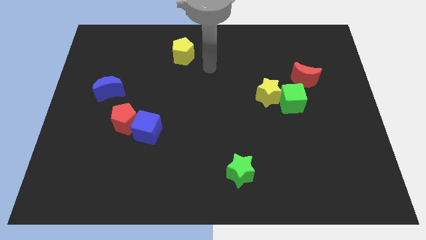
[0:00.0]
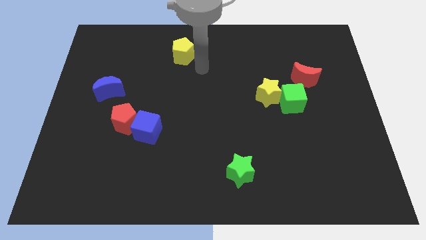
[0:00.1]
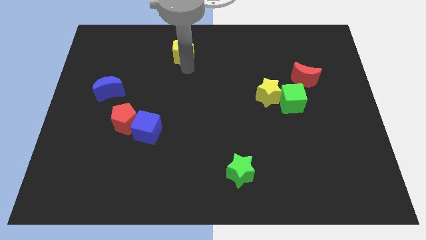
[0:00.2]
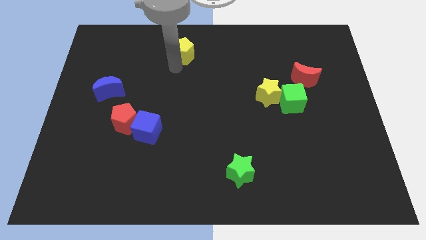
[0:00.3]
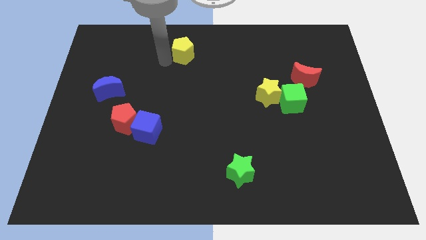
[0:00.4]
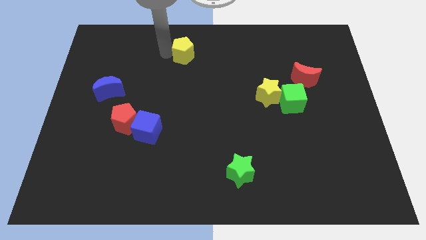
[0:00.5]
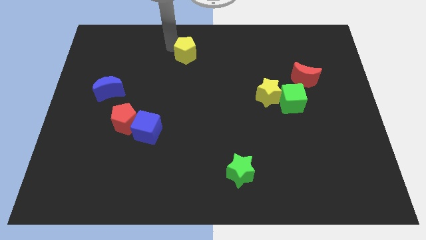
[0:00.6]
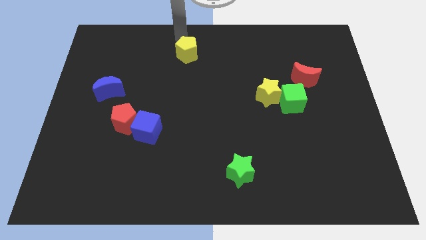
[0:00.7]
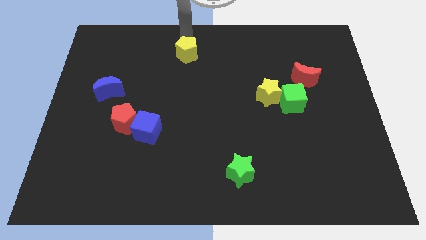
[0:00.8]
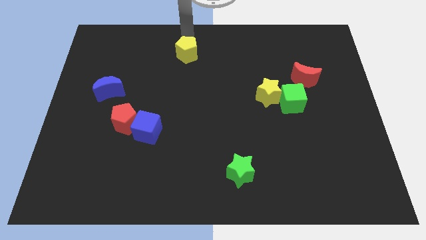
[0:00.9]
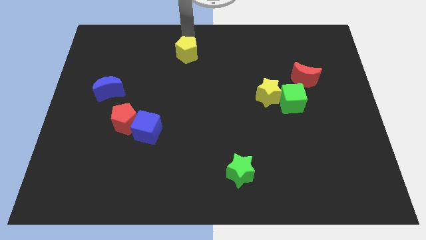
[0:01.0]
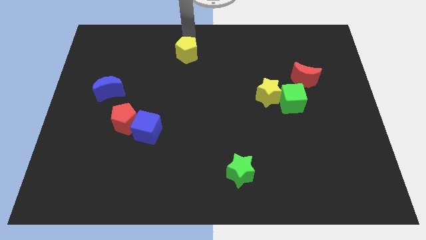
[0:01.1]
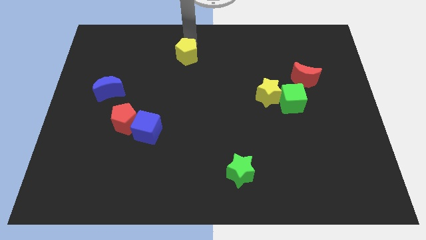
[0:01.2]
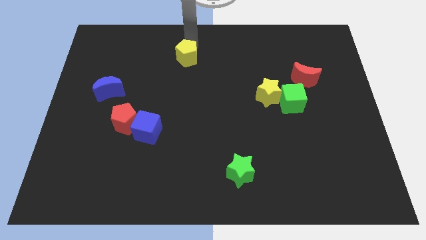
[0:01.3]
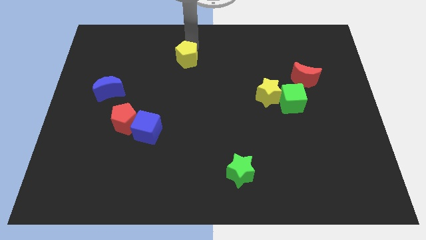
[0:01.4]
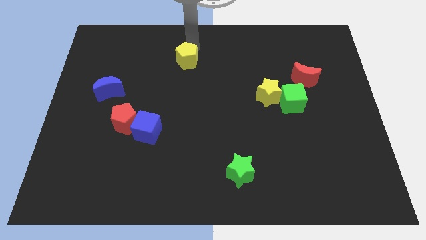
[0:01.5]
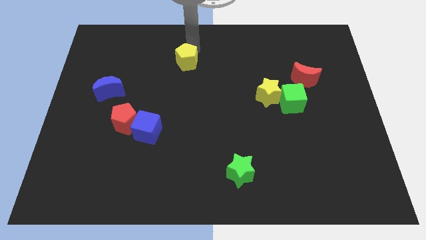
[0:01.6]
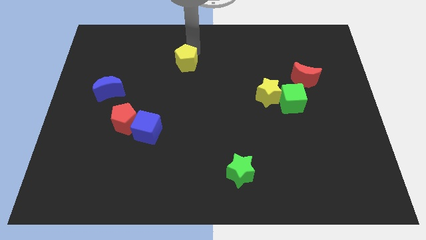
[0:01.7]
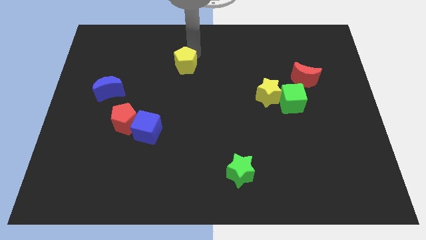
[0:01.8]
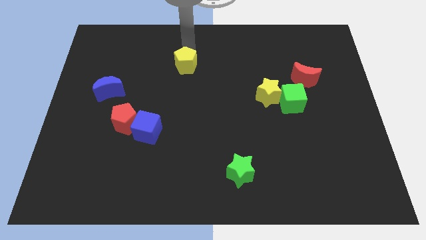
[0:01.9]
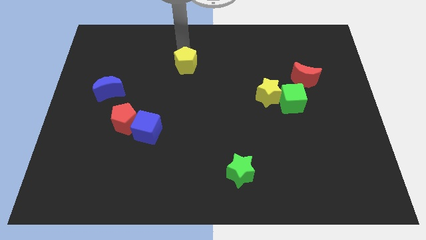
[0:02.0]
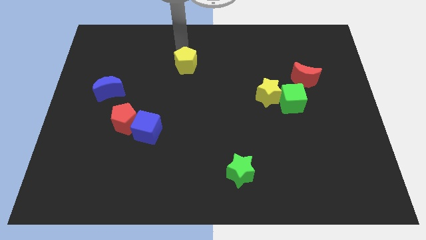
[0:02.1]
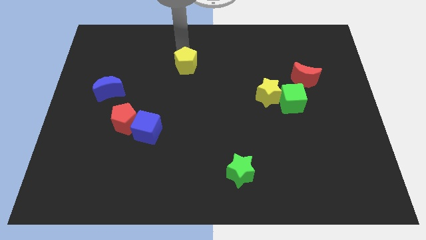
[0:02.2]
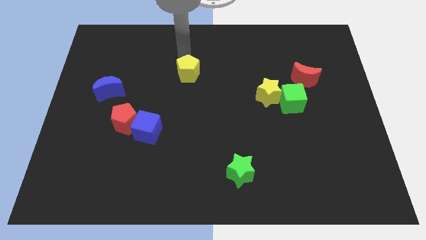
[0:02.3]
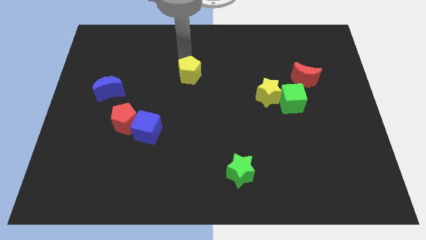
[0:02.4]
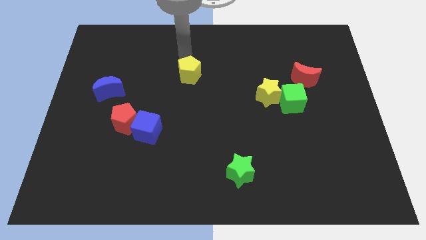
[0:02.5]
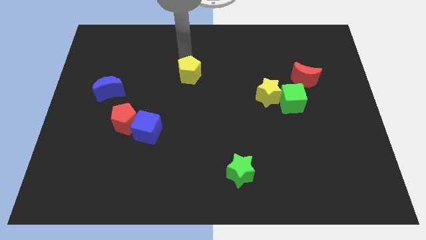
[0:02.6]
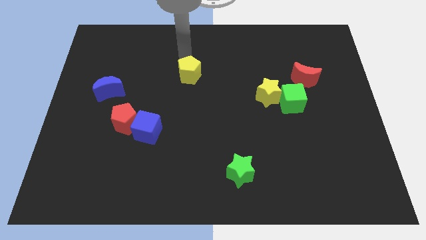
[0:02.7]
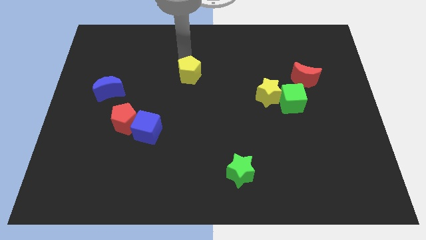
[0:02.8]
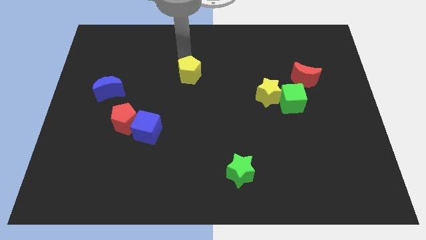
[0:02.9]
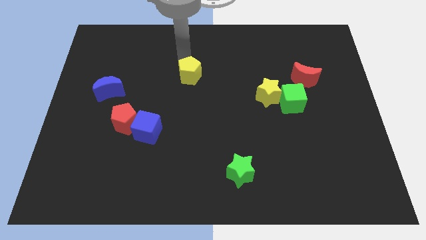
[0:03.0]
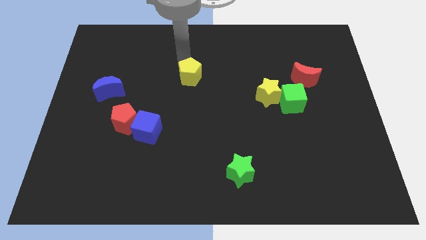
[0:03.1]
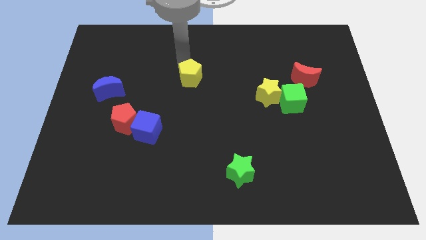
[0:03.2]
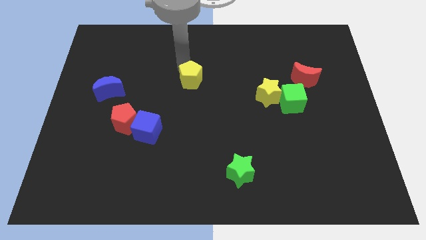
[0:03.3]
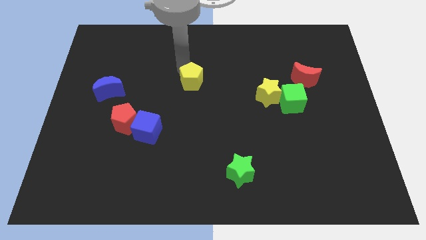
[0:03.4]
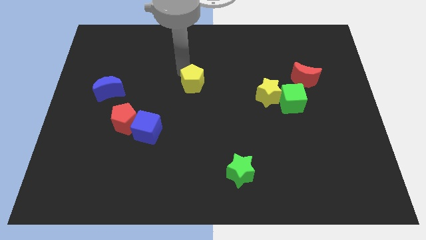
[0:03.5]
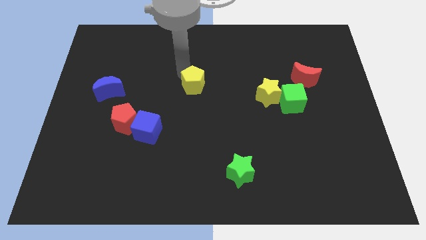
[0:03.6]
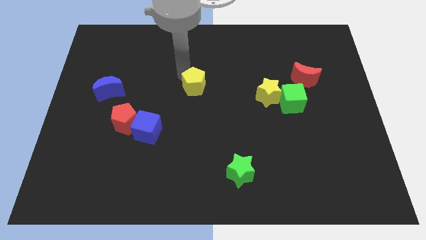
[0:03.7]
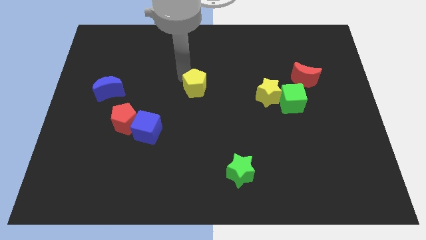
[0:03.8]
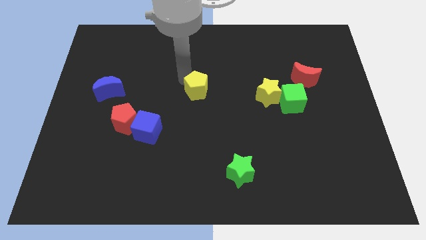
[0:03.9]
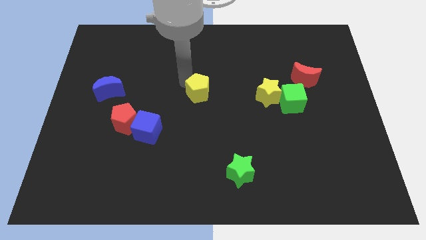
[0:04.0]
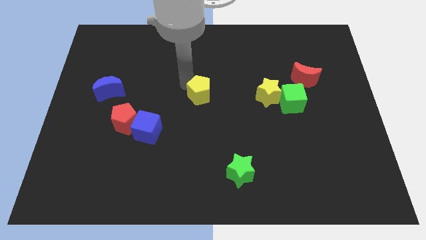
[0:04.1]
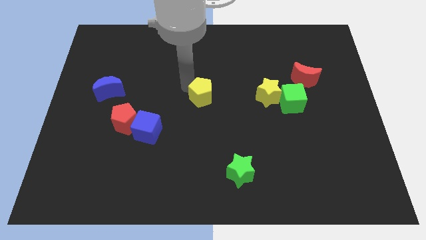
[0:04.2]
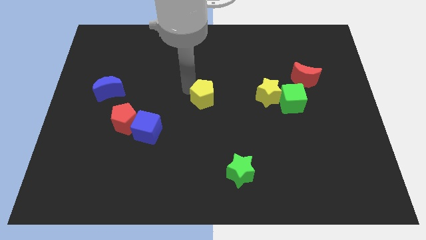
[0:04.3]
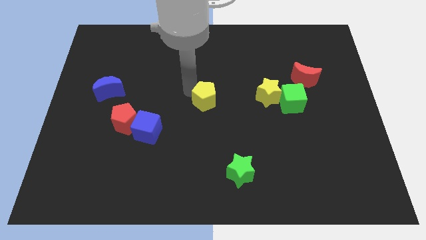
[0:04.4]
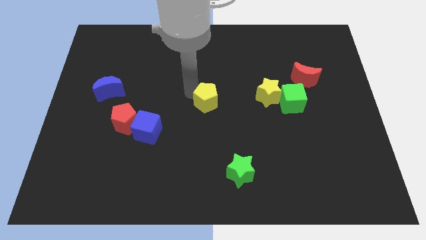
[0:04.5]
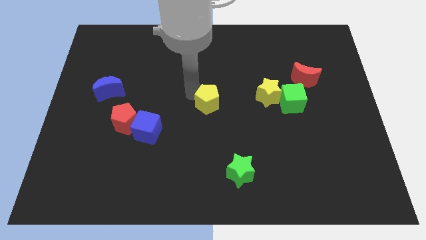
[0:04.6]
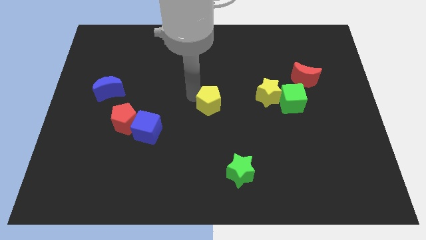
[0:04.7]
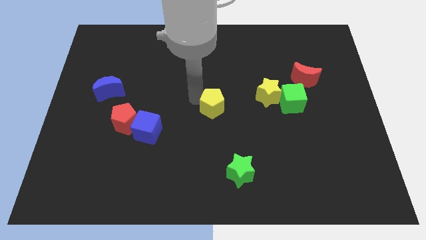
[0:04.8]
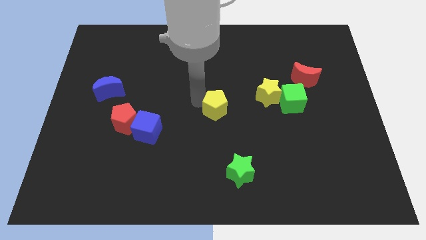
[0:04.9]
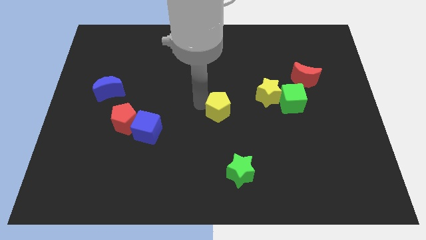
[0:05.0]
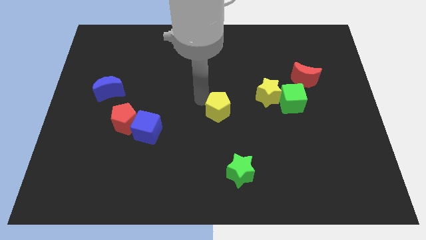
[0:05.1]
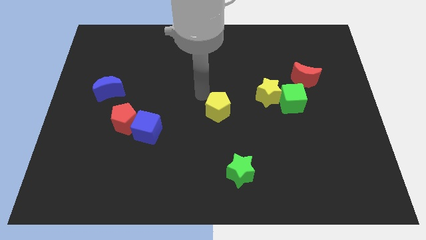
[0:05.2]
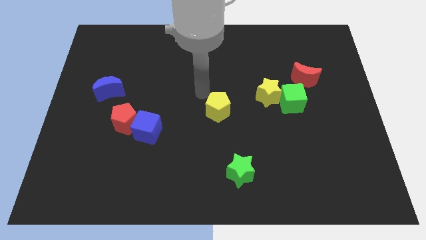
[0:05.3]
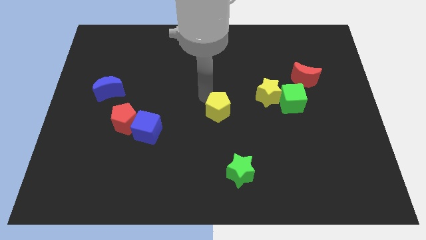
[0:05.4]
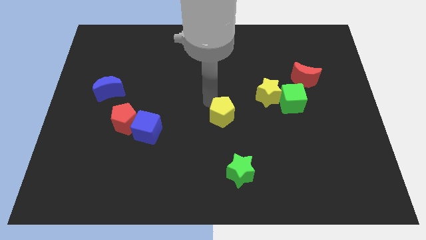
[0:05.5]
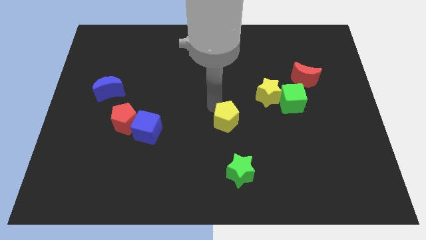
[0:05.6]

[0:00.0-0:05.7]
push the yellow pentagon to the top side of the green star

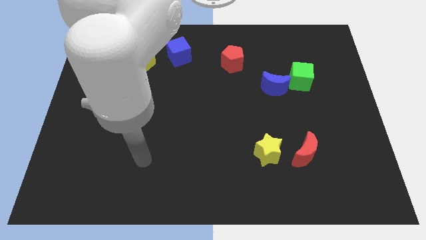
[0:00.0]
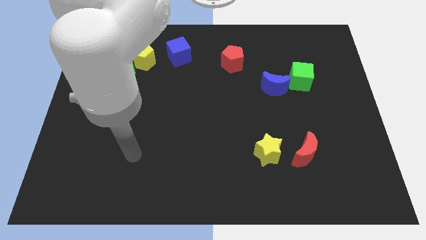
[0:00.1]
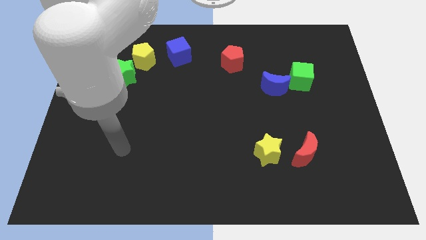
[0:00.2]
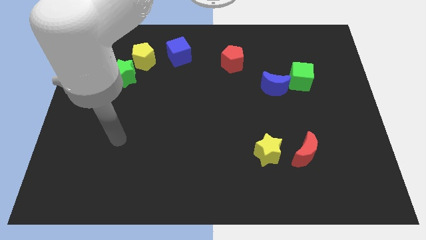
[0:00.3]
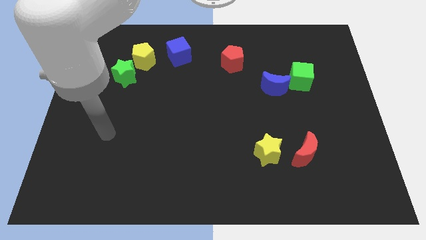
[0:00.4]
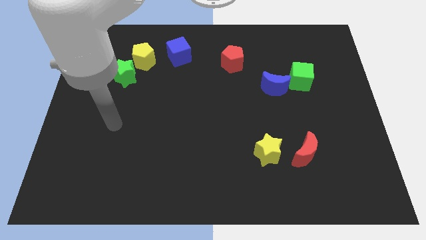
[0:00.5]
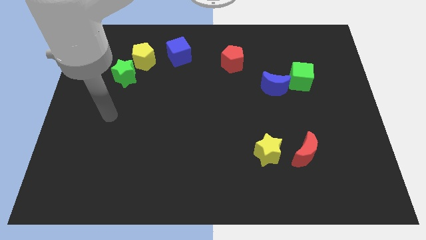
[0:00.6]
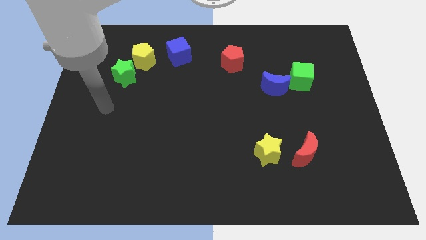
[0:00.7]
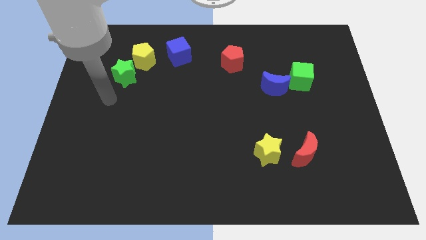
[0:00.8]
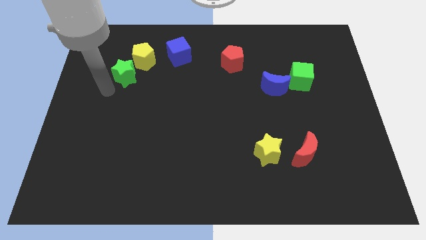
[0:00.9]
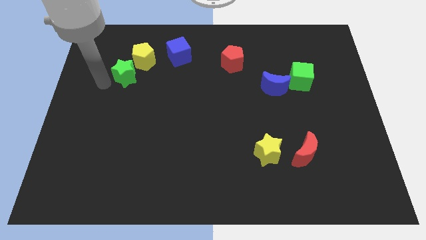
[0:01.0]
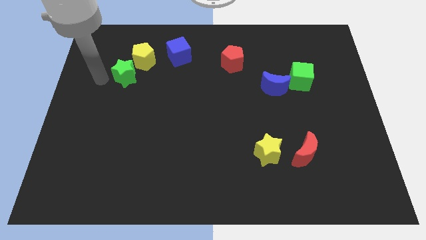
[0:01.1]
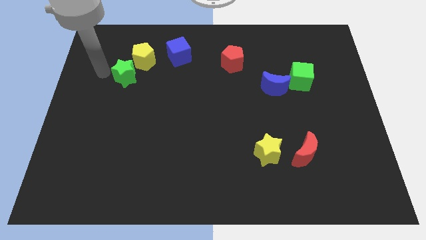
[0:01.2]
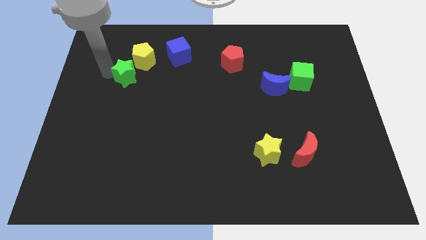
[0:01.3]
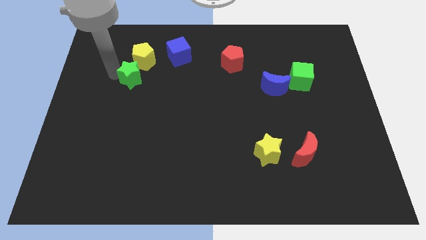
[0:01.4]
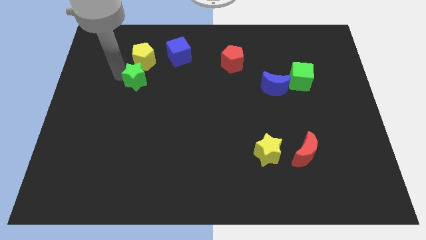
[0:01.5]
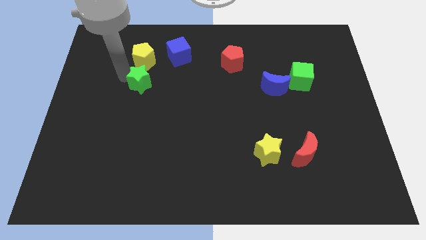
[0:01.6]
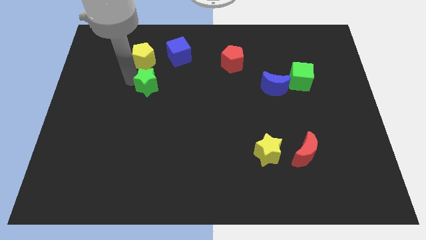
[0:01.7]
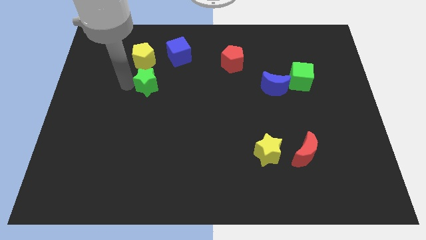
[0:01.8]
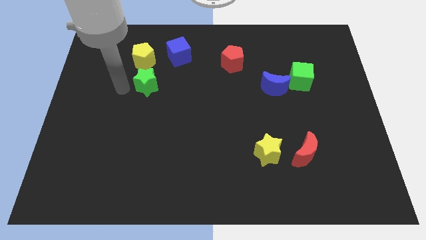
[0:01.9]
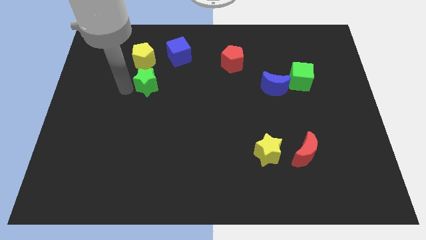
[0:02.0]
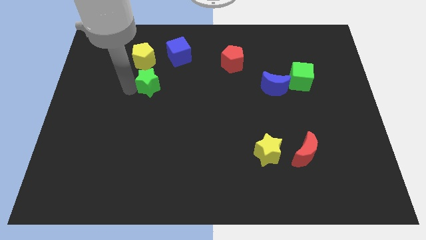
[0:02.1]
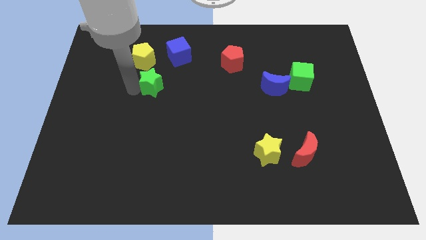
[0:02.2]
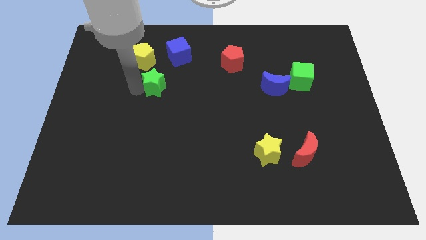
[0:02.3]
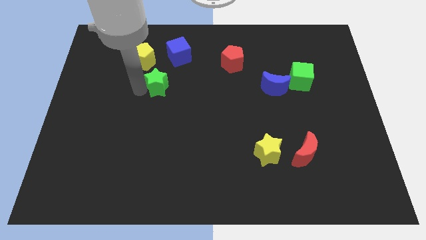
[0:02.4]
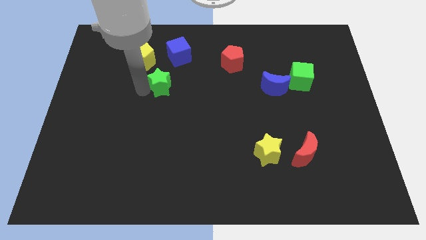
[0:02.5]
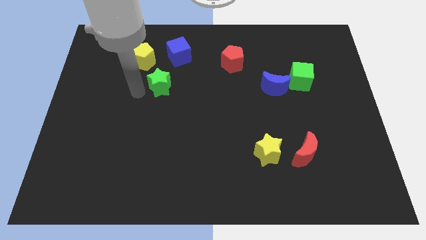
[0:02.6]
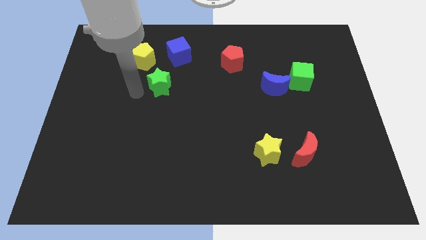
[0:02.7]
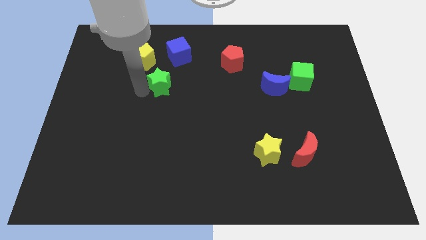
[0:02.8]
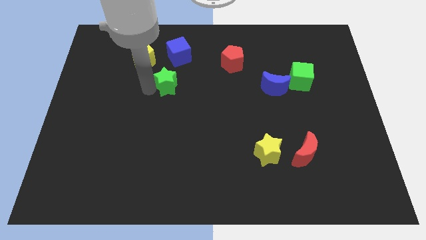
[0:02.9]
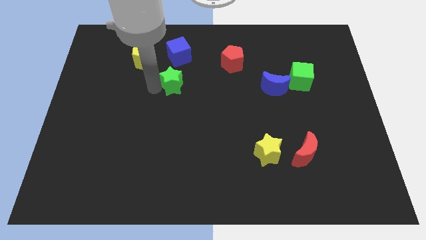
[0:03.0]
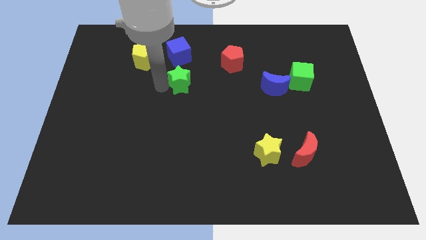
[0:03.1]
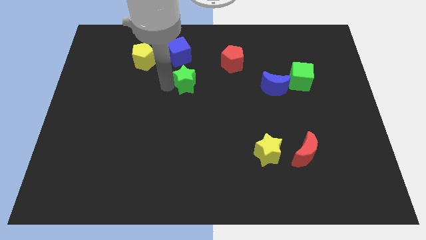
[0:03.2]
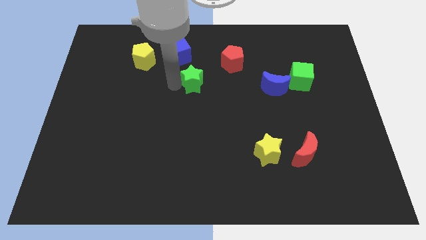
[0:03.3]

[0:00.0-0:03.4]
push the green star to the bottom left side of the red pentagon
